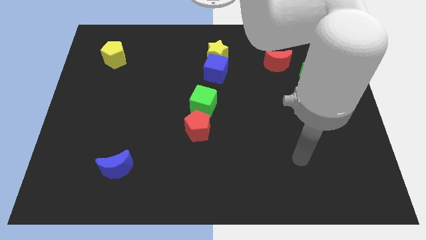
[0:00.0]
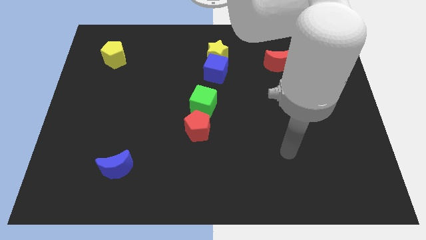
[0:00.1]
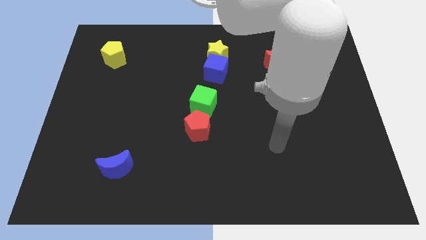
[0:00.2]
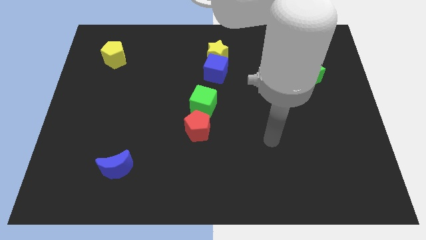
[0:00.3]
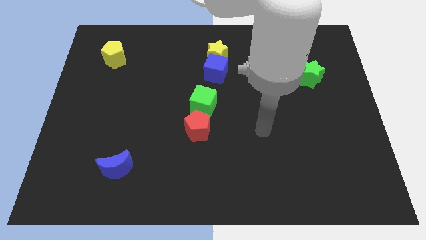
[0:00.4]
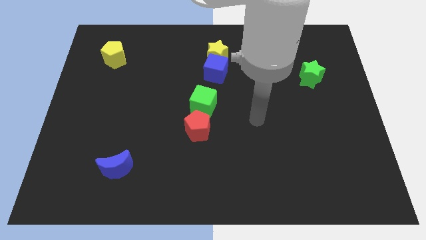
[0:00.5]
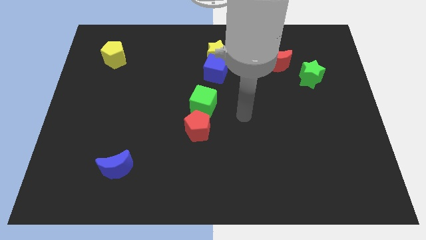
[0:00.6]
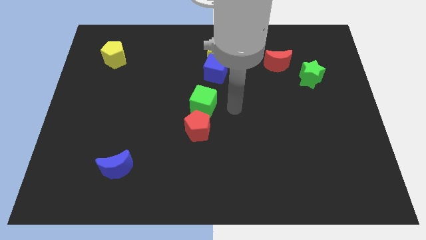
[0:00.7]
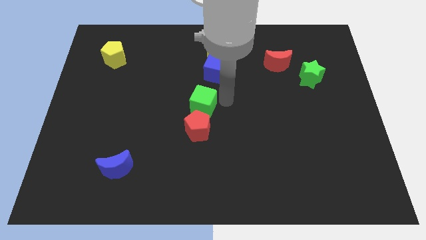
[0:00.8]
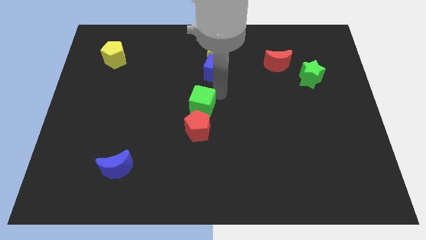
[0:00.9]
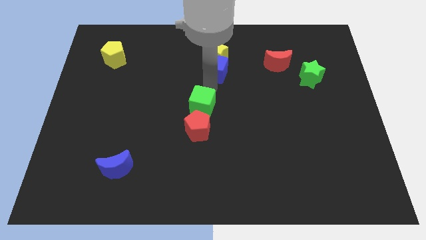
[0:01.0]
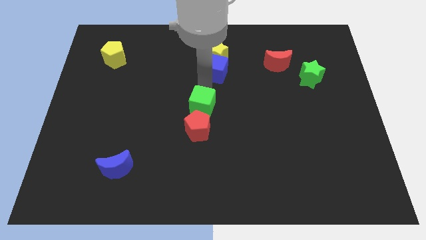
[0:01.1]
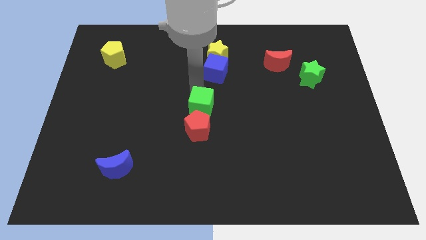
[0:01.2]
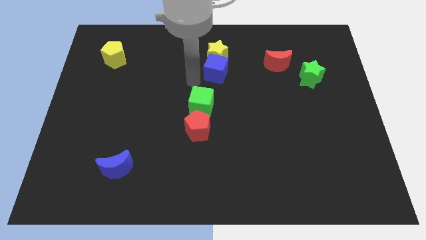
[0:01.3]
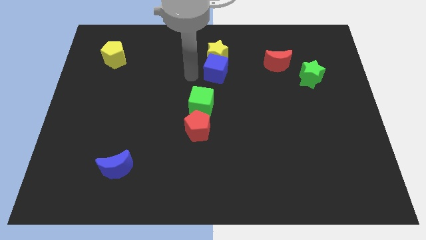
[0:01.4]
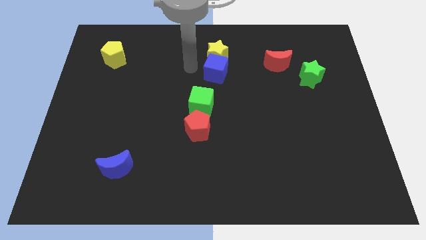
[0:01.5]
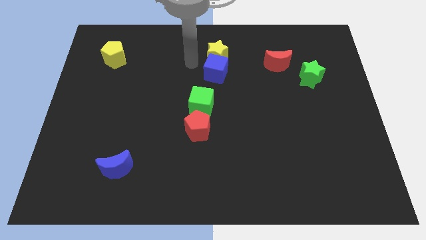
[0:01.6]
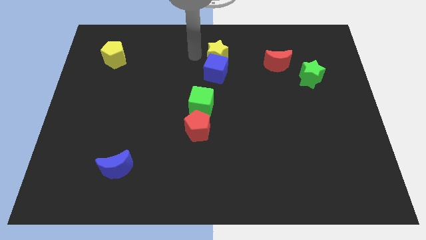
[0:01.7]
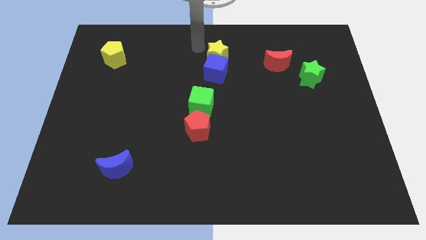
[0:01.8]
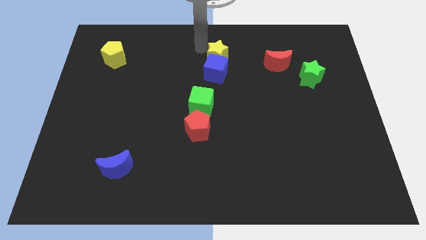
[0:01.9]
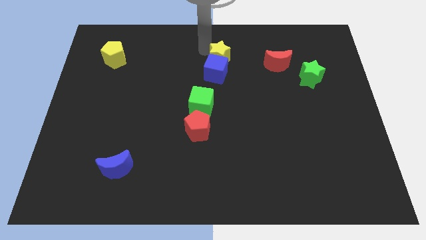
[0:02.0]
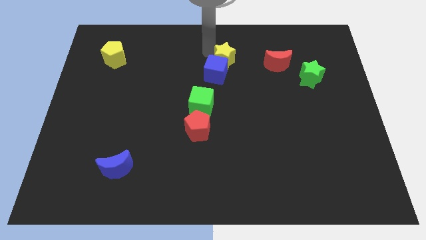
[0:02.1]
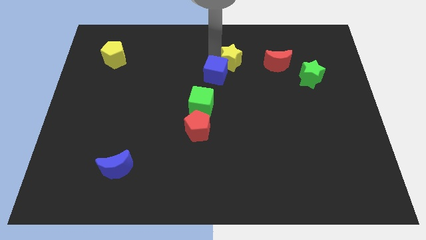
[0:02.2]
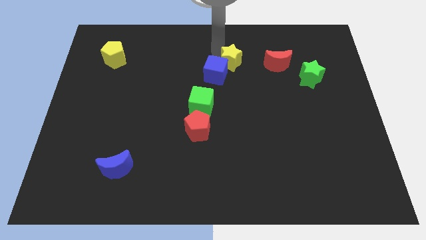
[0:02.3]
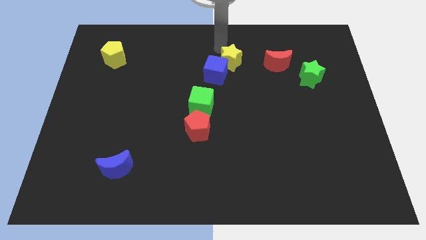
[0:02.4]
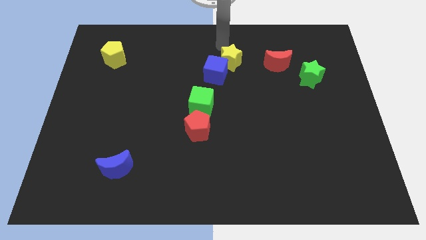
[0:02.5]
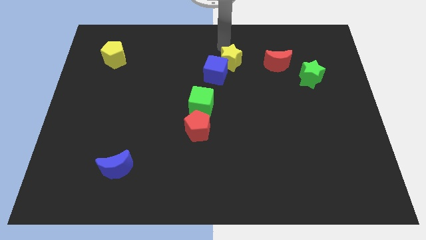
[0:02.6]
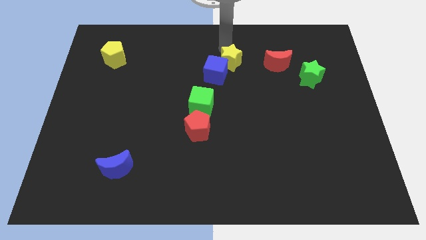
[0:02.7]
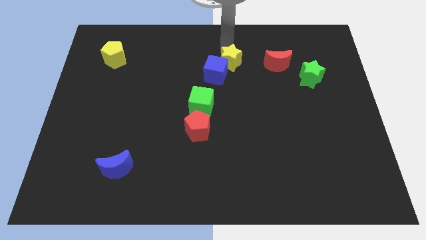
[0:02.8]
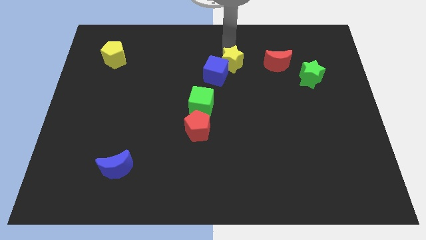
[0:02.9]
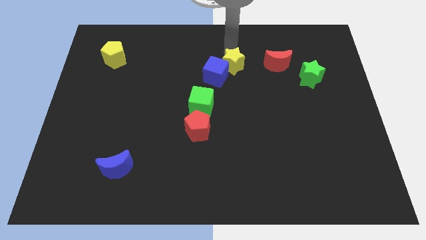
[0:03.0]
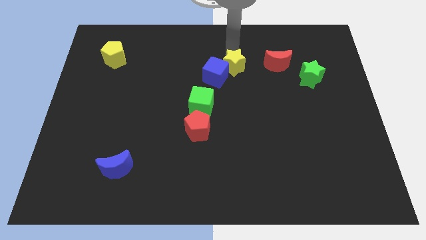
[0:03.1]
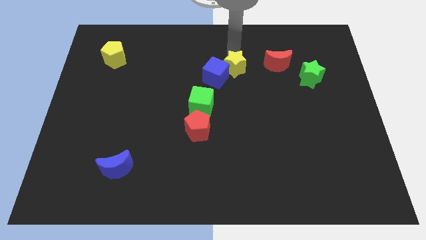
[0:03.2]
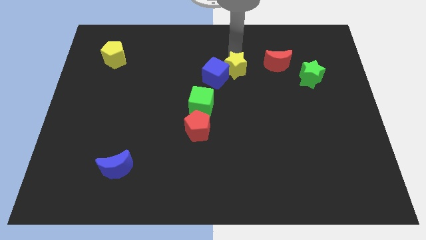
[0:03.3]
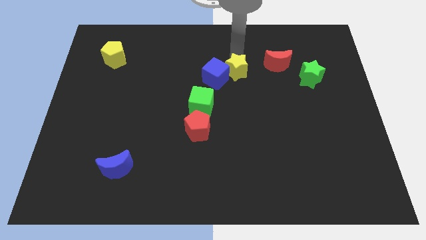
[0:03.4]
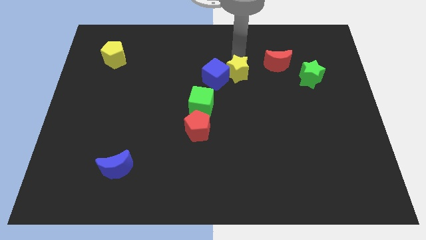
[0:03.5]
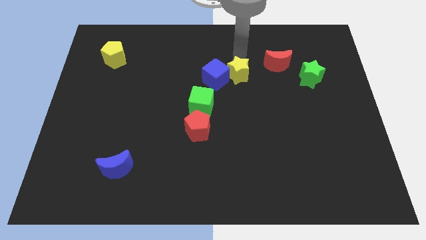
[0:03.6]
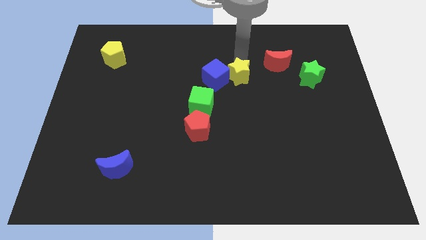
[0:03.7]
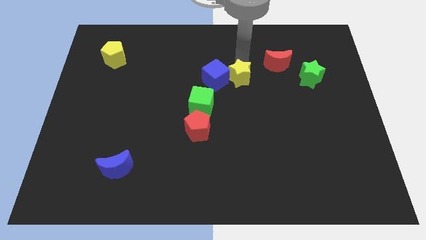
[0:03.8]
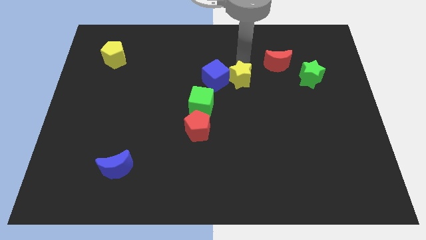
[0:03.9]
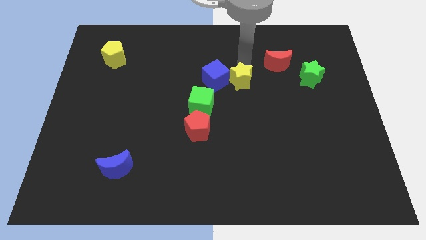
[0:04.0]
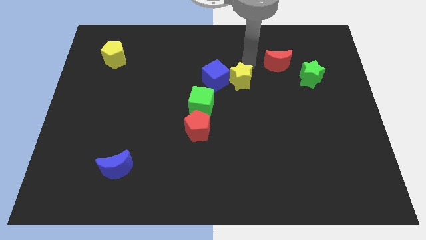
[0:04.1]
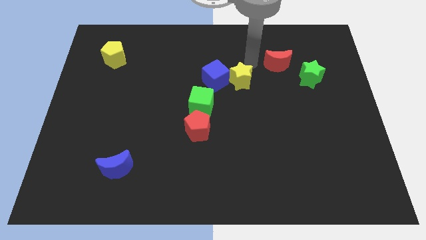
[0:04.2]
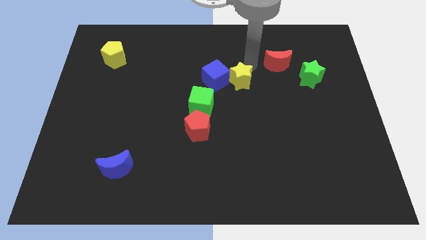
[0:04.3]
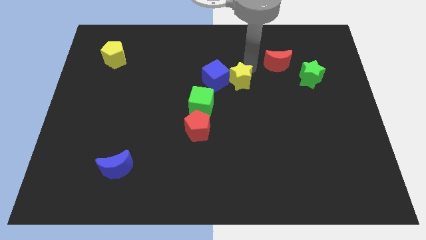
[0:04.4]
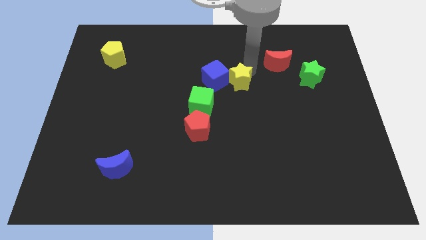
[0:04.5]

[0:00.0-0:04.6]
push the yellow star down slightly

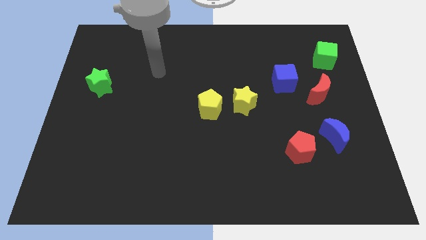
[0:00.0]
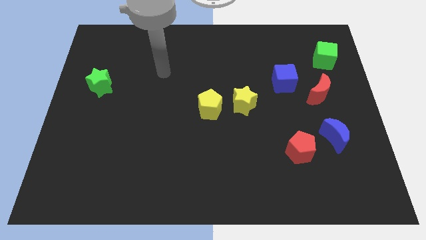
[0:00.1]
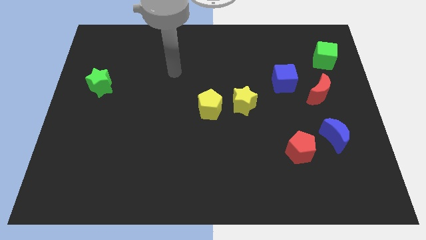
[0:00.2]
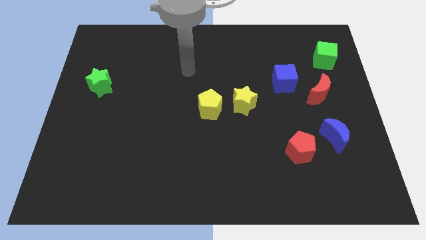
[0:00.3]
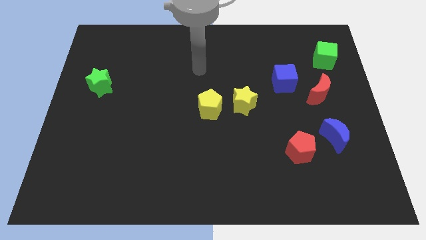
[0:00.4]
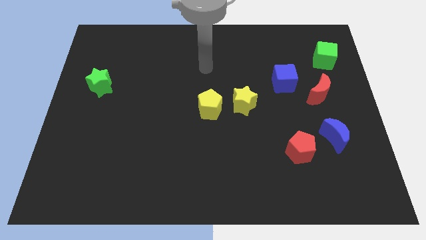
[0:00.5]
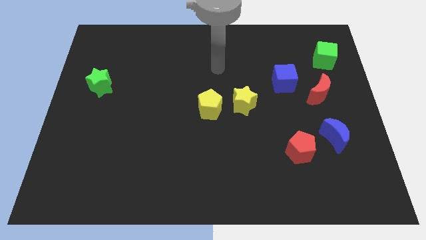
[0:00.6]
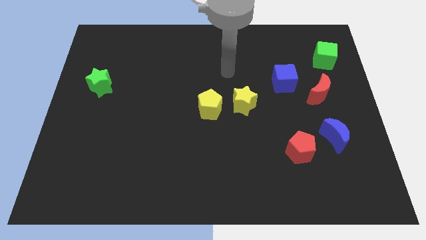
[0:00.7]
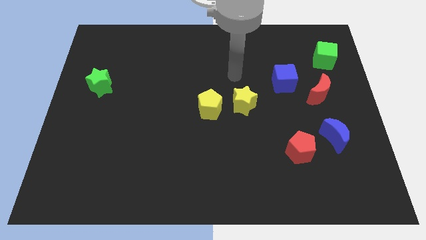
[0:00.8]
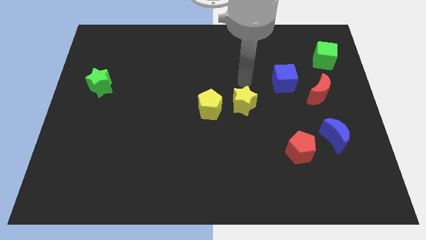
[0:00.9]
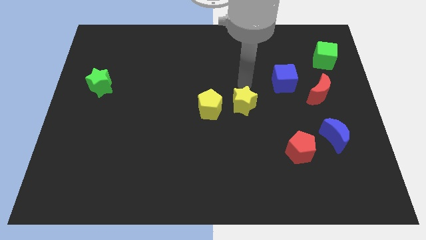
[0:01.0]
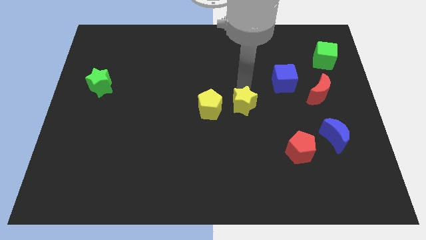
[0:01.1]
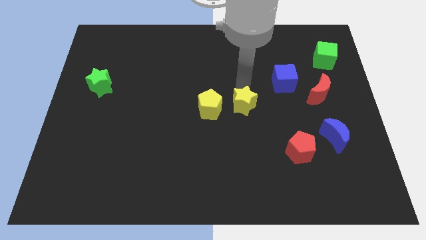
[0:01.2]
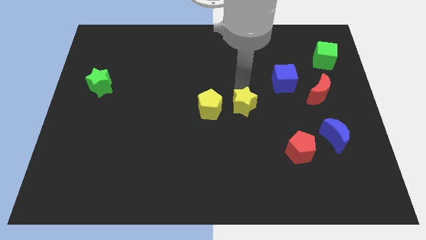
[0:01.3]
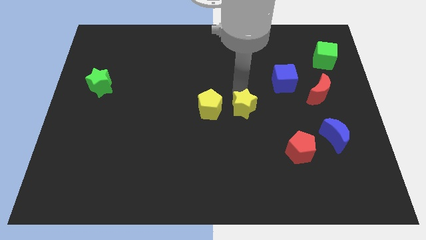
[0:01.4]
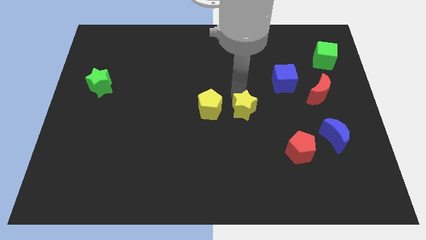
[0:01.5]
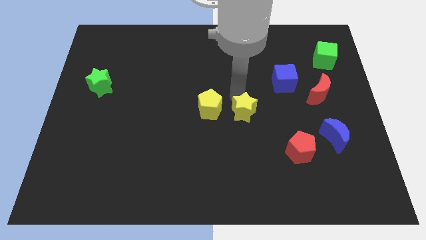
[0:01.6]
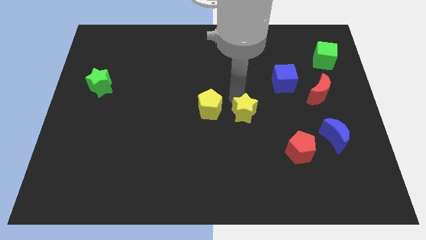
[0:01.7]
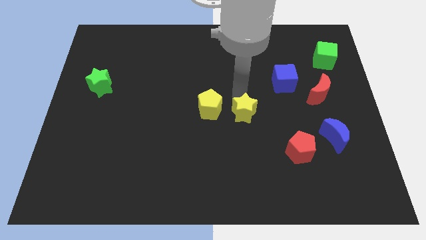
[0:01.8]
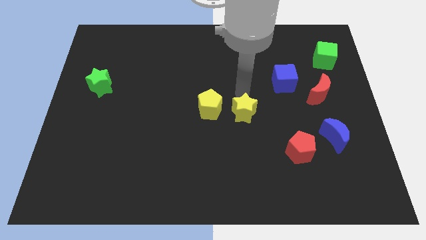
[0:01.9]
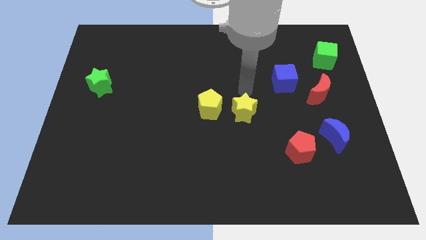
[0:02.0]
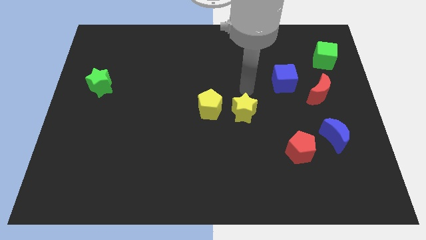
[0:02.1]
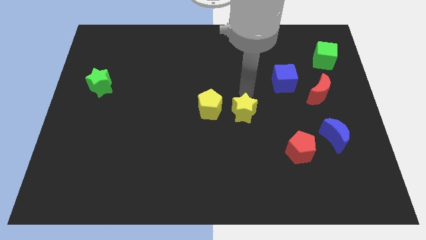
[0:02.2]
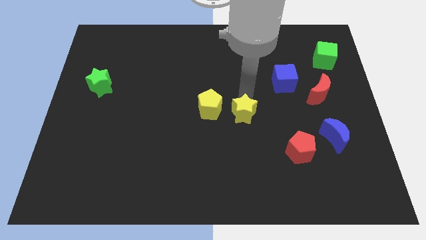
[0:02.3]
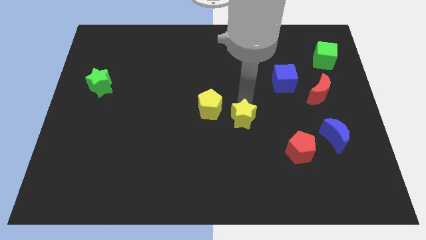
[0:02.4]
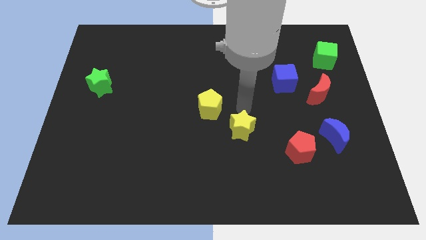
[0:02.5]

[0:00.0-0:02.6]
slide the yellow star downwards slightly

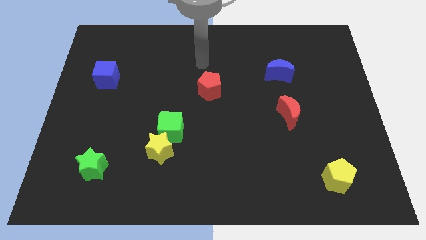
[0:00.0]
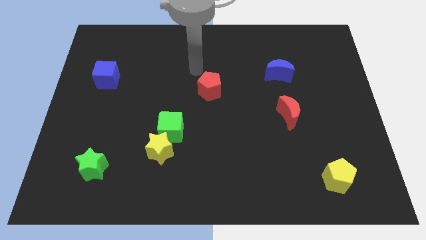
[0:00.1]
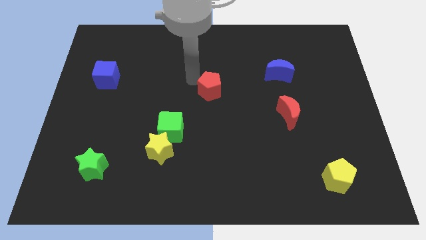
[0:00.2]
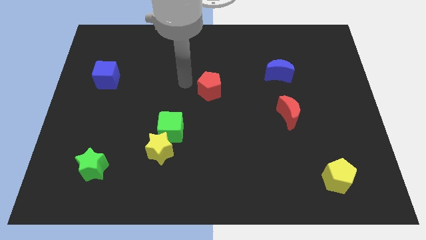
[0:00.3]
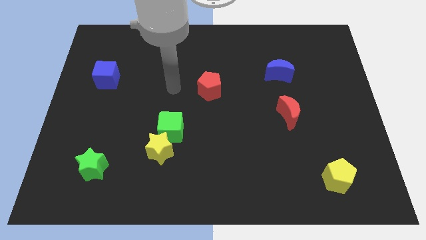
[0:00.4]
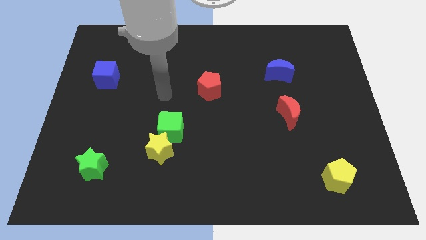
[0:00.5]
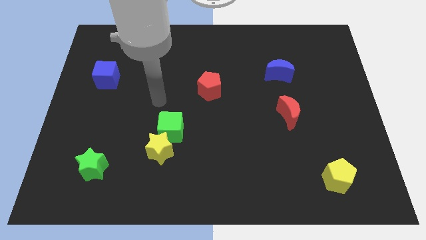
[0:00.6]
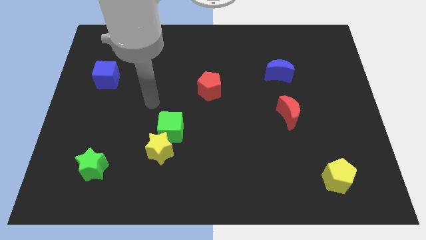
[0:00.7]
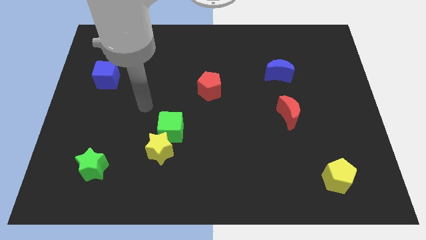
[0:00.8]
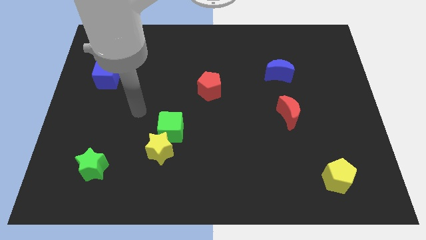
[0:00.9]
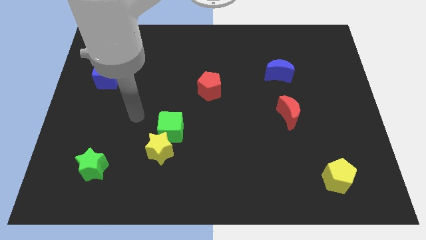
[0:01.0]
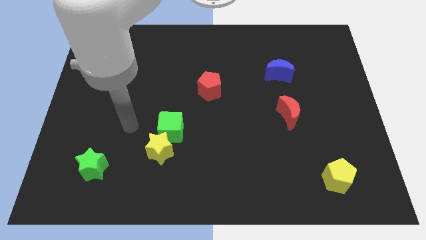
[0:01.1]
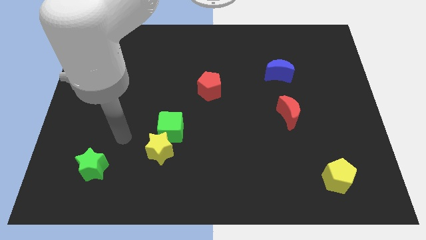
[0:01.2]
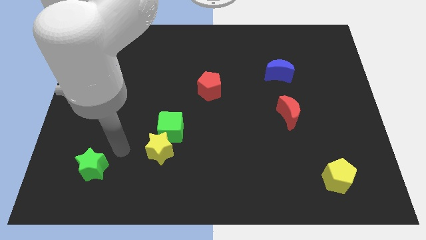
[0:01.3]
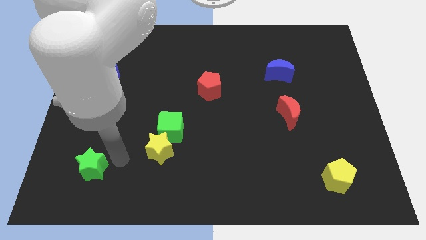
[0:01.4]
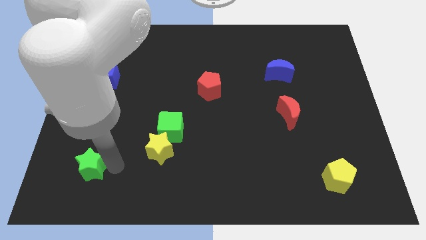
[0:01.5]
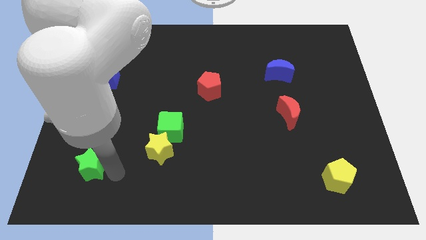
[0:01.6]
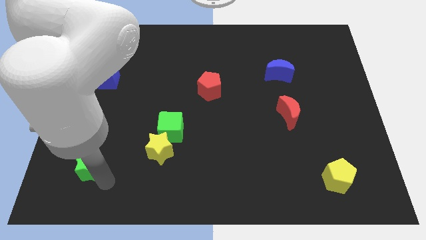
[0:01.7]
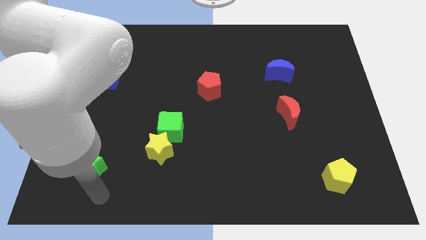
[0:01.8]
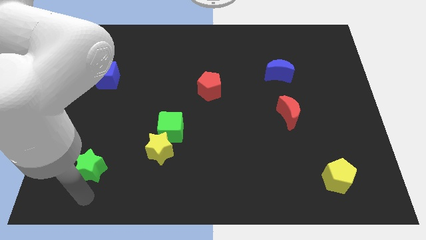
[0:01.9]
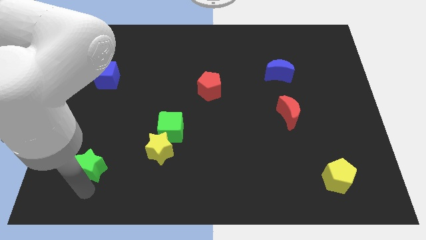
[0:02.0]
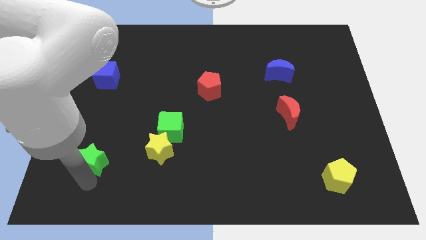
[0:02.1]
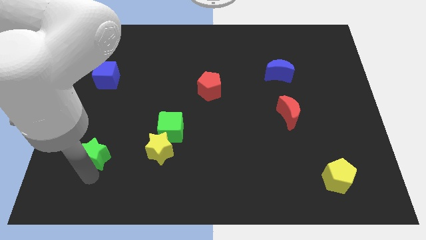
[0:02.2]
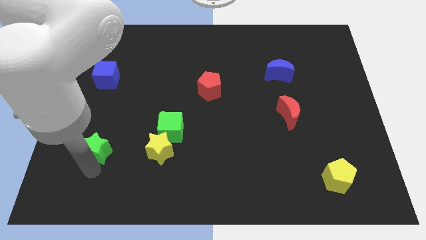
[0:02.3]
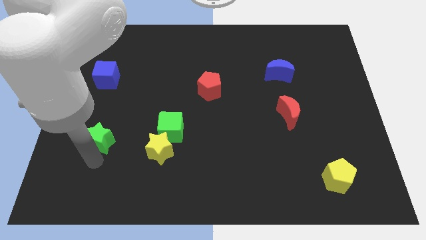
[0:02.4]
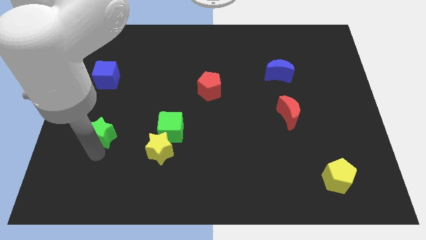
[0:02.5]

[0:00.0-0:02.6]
push the green star up a little bit
